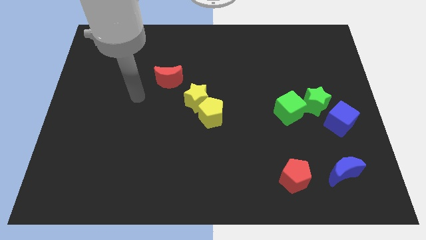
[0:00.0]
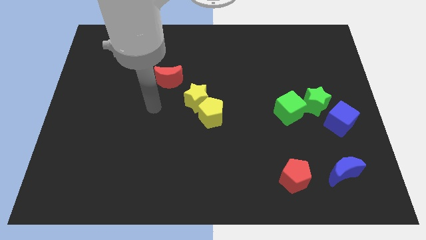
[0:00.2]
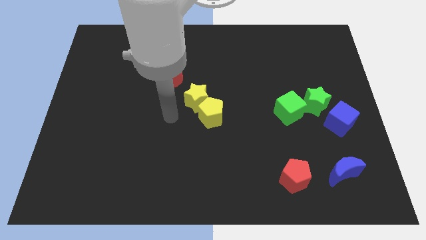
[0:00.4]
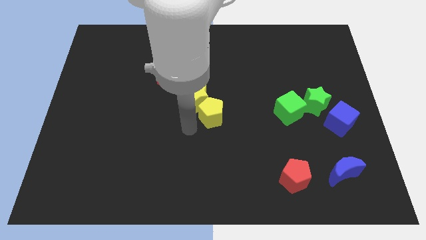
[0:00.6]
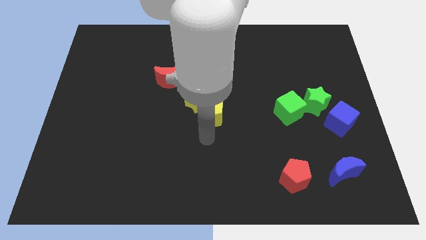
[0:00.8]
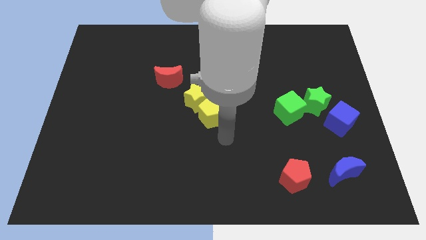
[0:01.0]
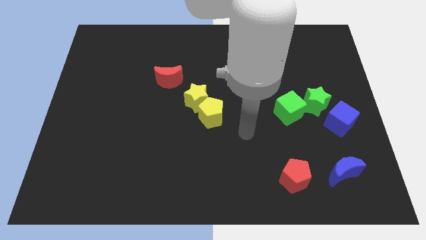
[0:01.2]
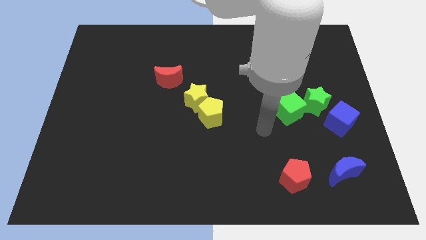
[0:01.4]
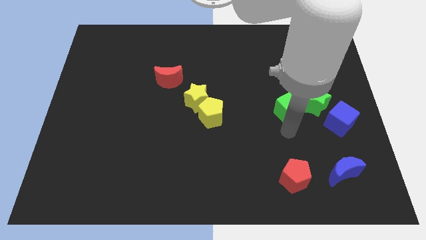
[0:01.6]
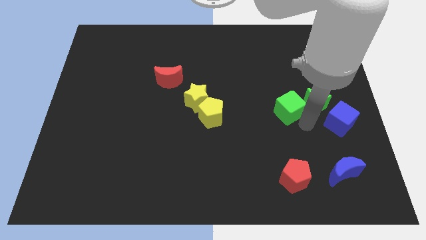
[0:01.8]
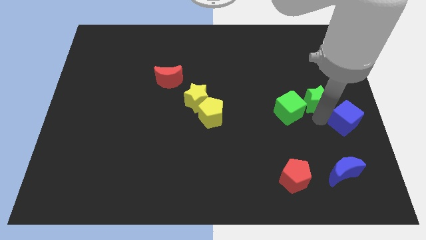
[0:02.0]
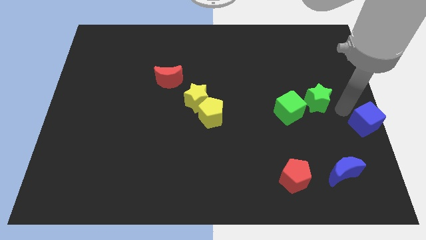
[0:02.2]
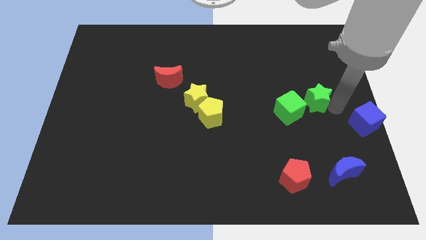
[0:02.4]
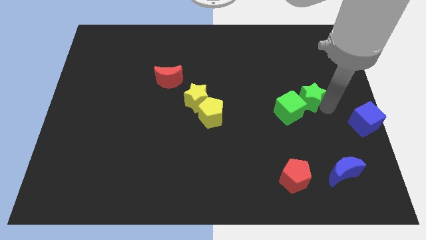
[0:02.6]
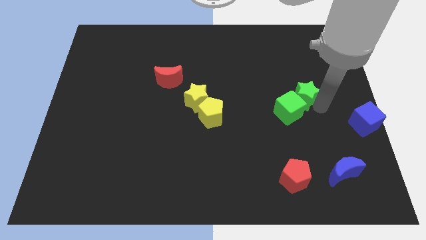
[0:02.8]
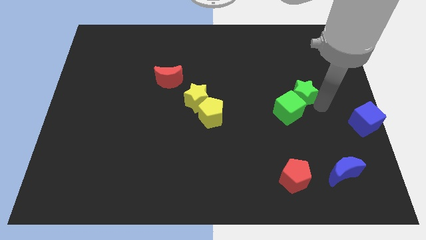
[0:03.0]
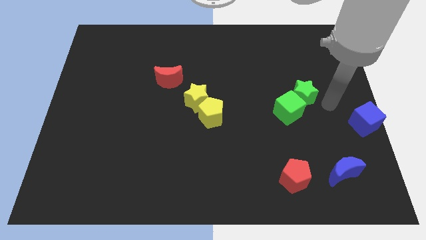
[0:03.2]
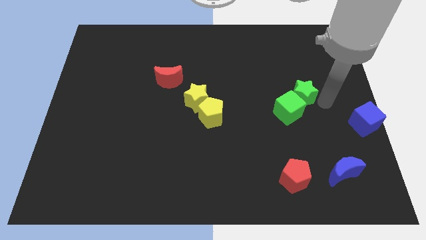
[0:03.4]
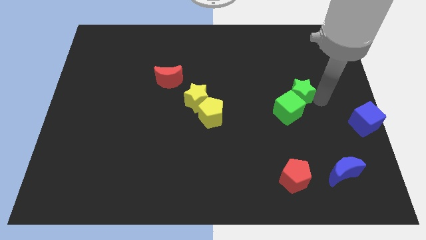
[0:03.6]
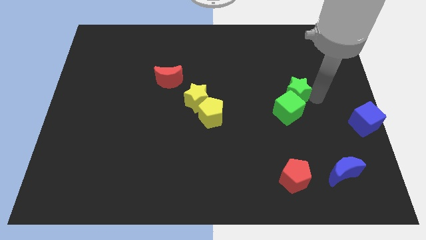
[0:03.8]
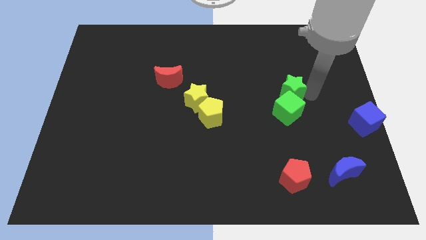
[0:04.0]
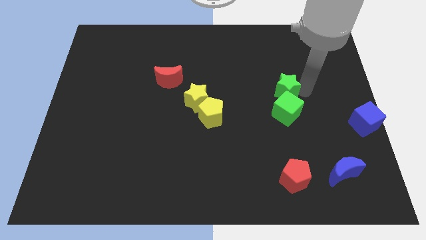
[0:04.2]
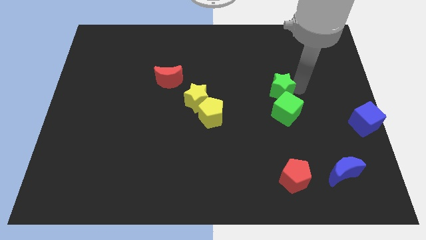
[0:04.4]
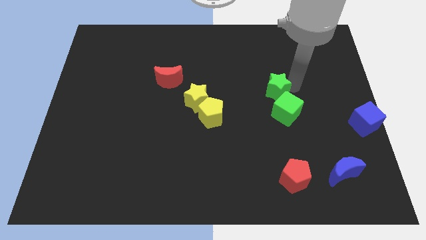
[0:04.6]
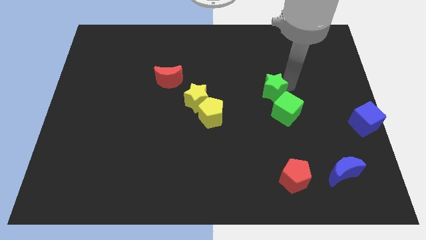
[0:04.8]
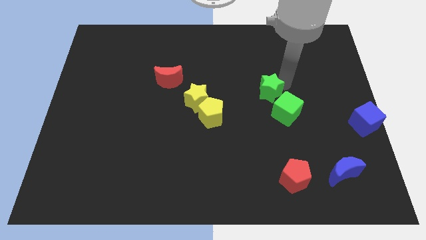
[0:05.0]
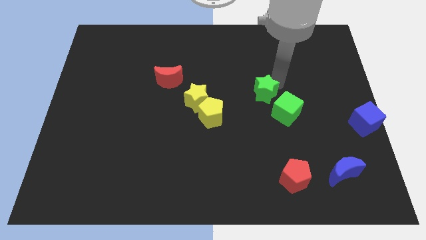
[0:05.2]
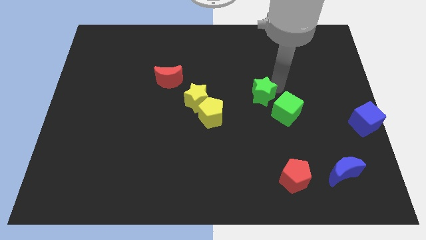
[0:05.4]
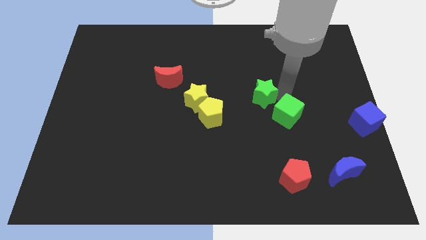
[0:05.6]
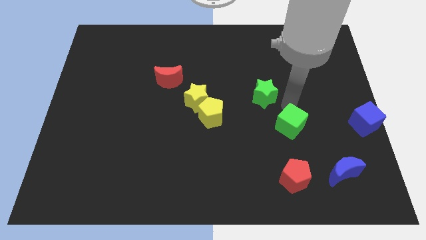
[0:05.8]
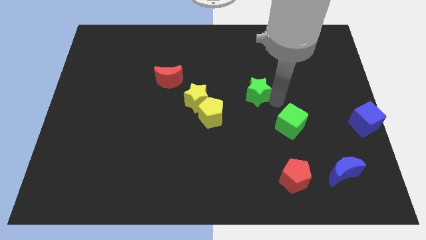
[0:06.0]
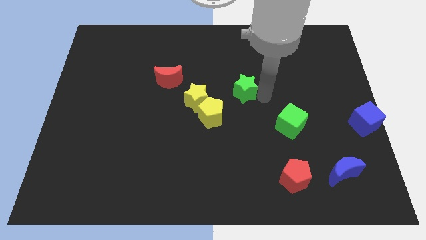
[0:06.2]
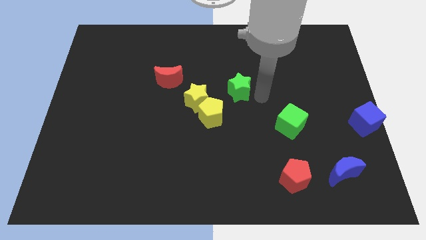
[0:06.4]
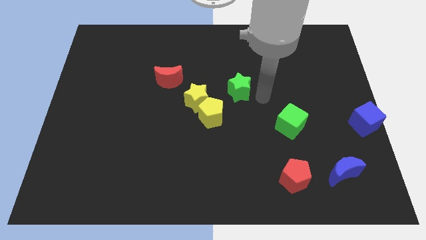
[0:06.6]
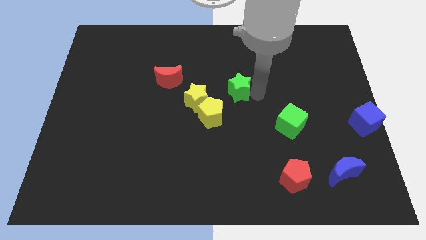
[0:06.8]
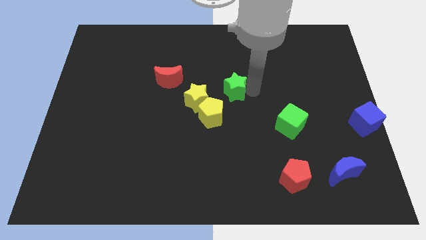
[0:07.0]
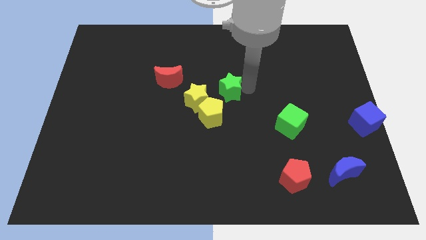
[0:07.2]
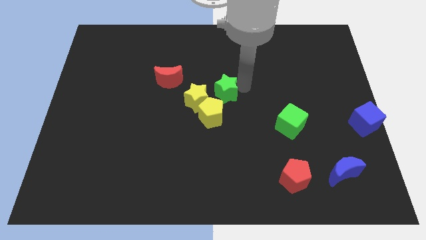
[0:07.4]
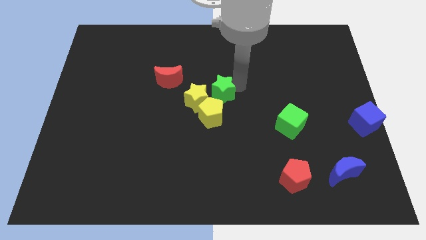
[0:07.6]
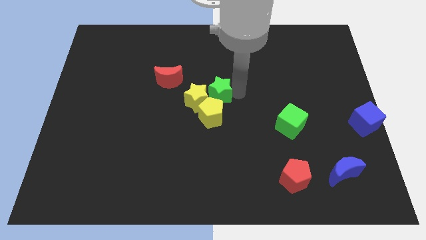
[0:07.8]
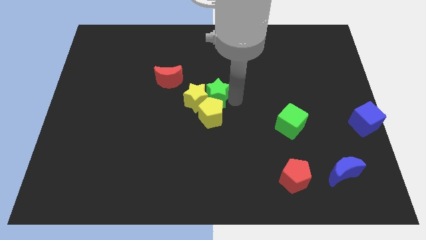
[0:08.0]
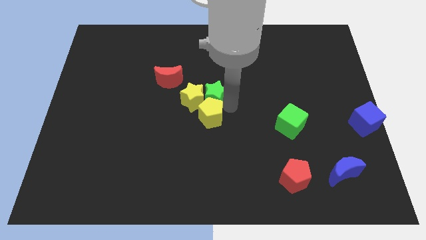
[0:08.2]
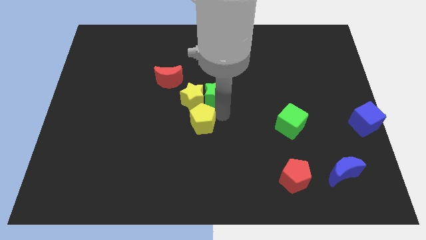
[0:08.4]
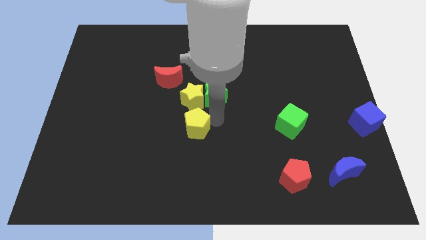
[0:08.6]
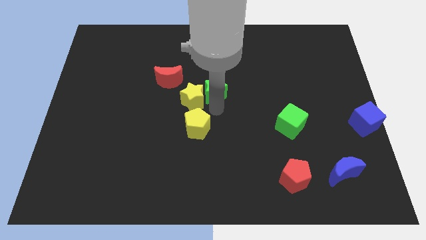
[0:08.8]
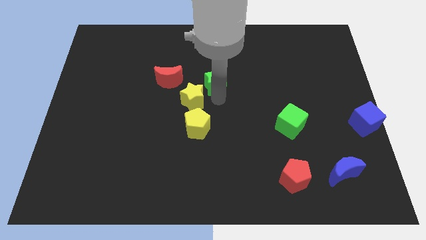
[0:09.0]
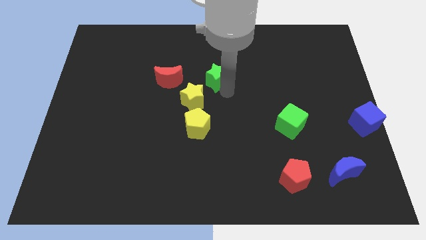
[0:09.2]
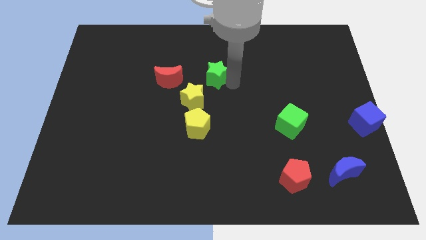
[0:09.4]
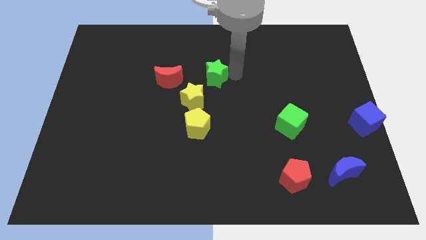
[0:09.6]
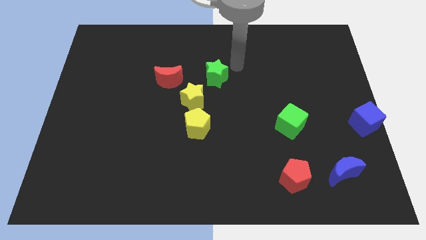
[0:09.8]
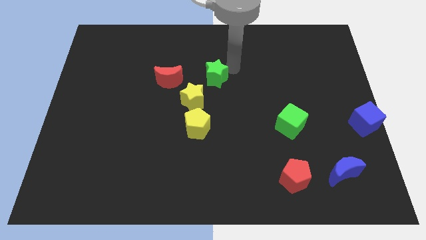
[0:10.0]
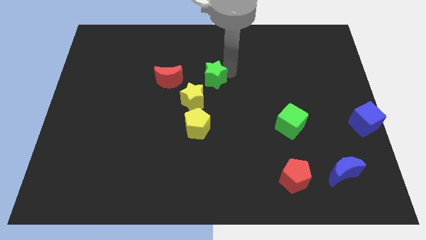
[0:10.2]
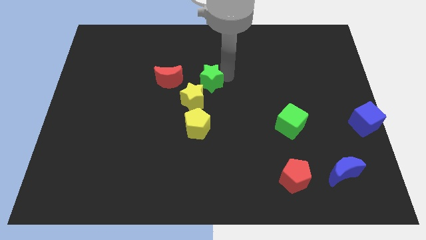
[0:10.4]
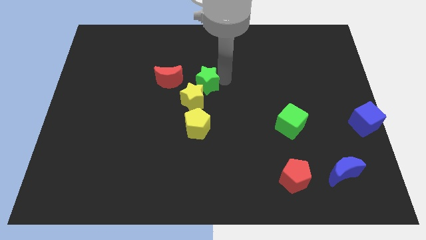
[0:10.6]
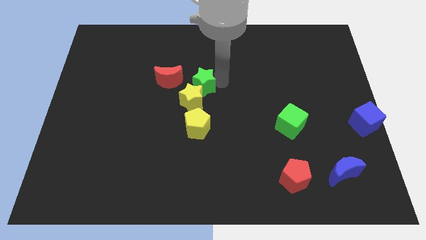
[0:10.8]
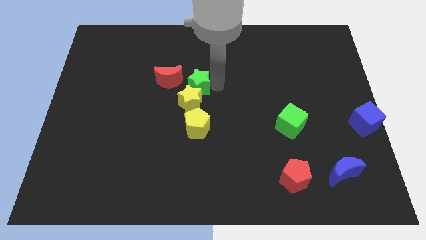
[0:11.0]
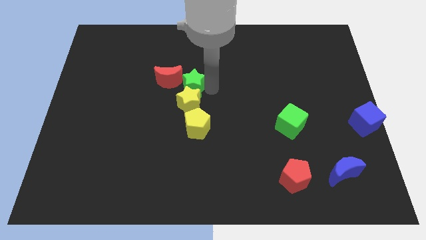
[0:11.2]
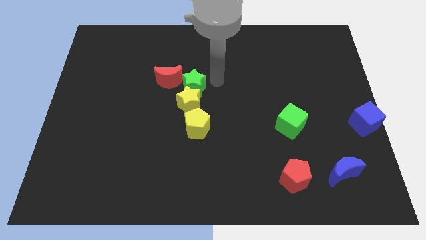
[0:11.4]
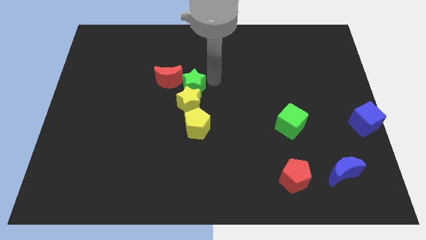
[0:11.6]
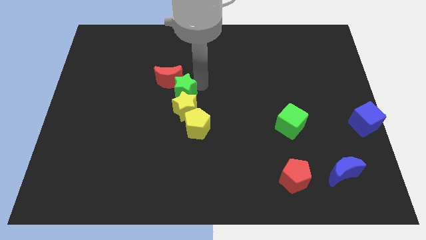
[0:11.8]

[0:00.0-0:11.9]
put the green star to the bottom of the red moon

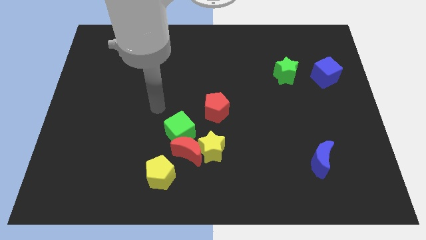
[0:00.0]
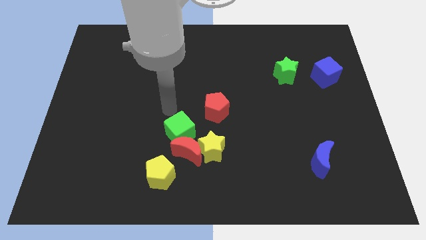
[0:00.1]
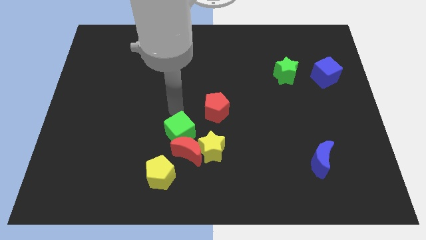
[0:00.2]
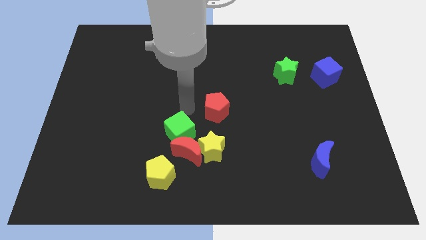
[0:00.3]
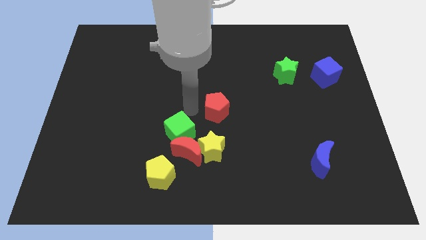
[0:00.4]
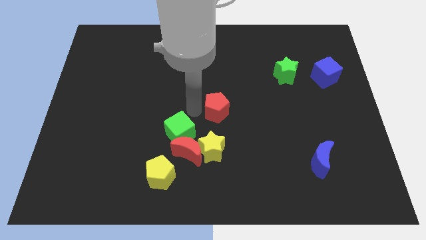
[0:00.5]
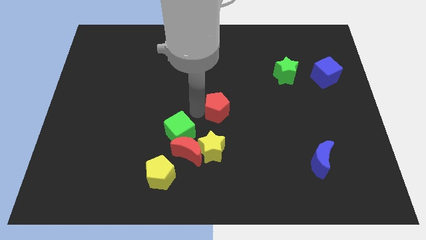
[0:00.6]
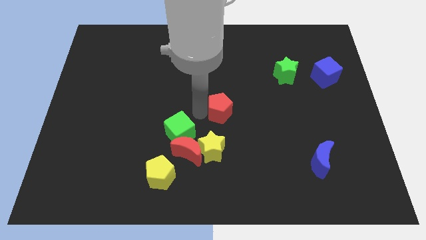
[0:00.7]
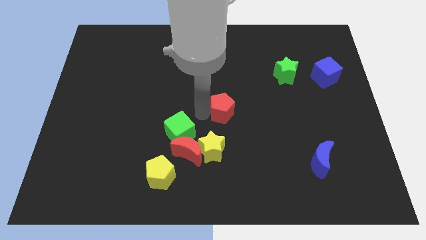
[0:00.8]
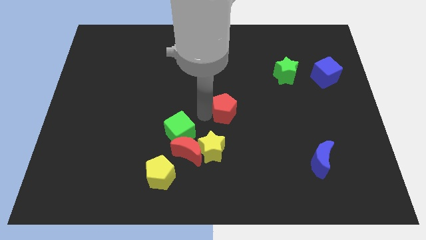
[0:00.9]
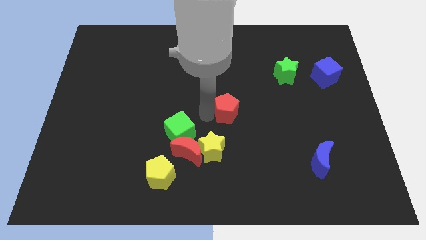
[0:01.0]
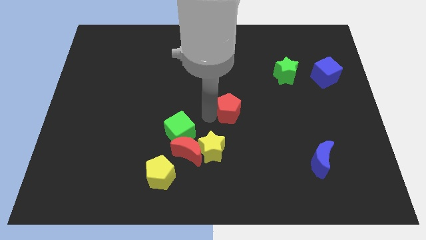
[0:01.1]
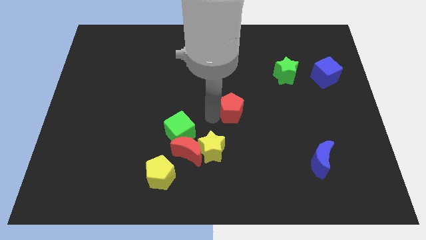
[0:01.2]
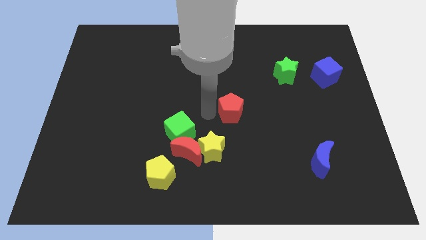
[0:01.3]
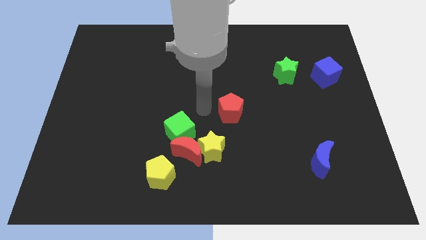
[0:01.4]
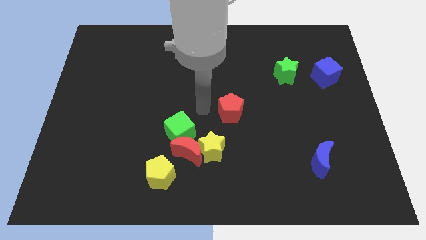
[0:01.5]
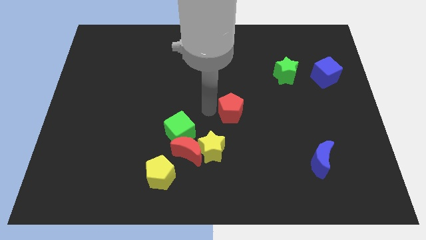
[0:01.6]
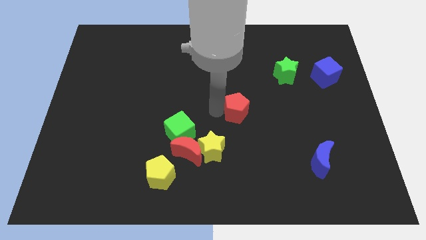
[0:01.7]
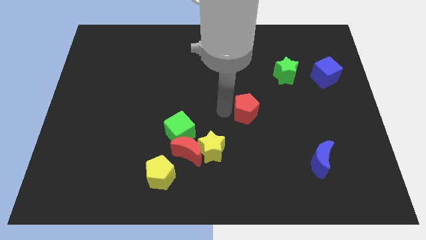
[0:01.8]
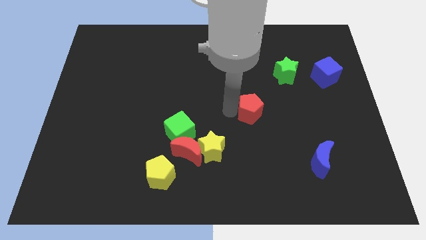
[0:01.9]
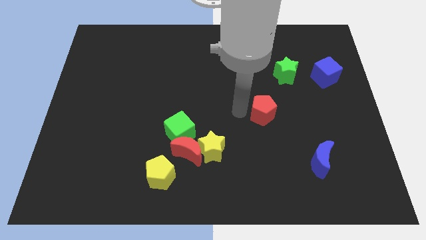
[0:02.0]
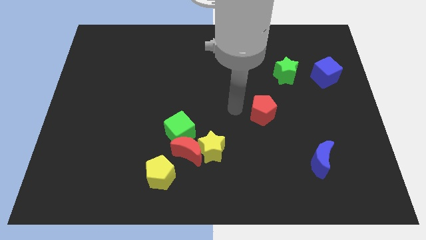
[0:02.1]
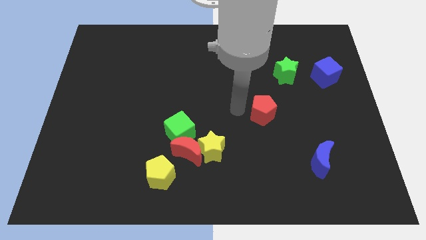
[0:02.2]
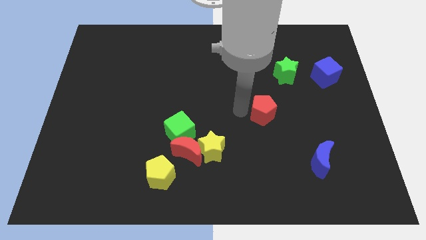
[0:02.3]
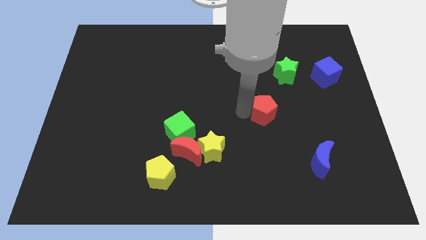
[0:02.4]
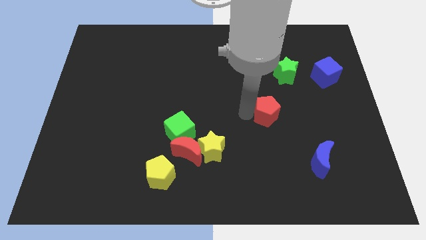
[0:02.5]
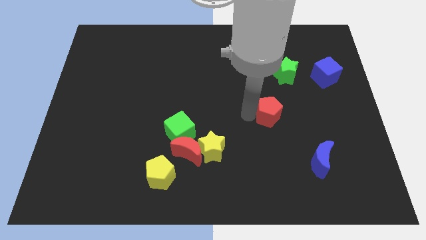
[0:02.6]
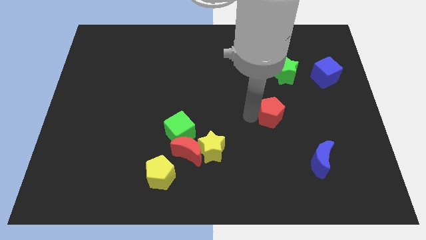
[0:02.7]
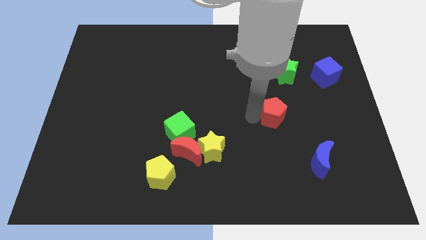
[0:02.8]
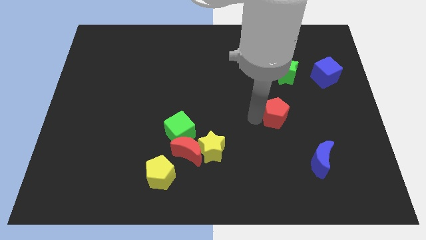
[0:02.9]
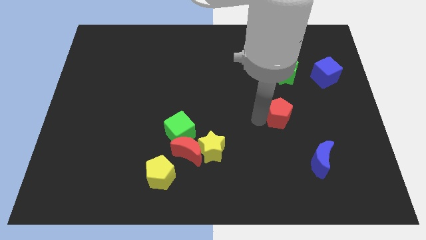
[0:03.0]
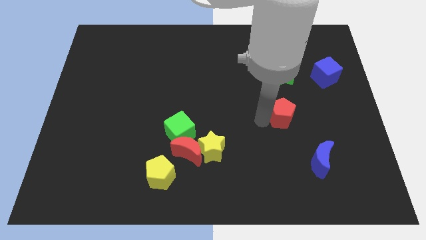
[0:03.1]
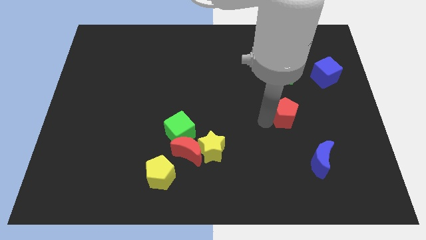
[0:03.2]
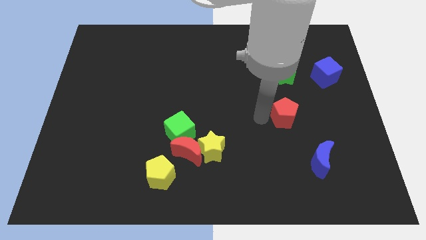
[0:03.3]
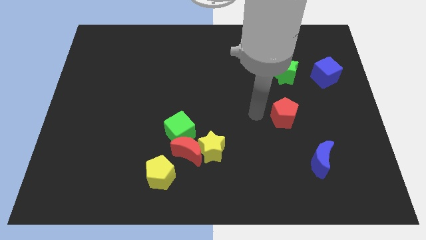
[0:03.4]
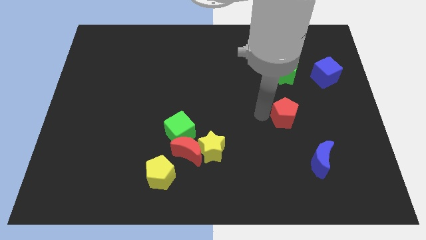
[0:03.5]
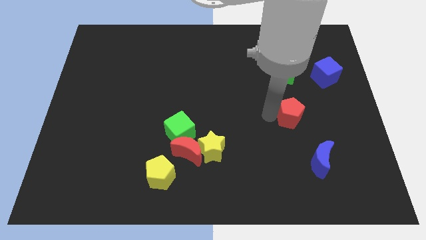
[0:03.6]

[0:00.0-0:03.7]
put the red pentagon above the blue moon
